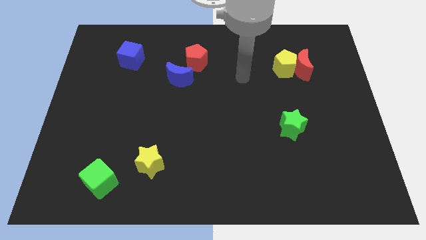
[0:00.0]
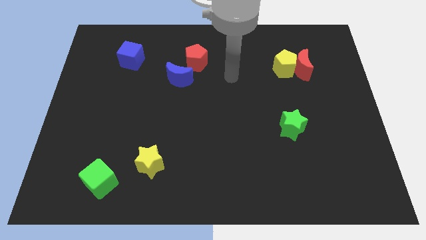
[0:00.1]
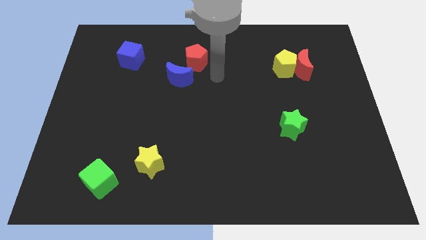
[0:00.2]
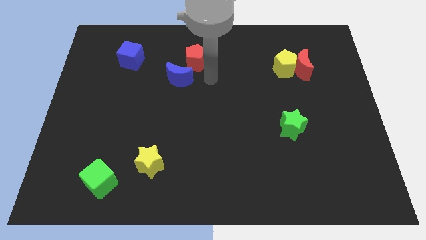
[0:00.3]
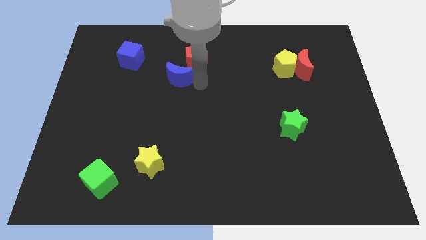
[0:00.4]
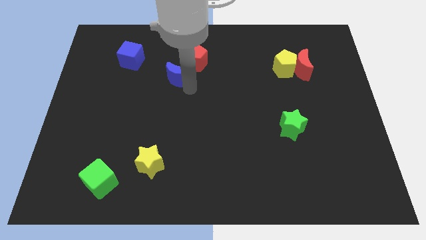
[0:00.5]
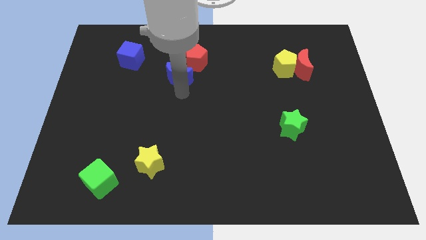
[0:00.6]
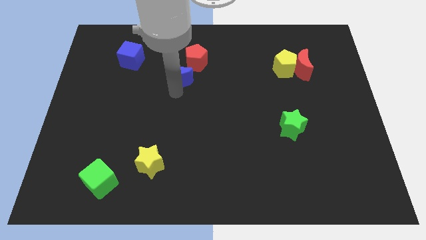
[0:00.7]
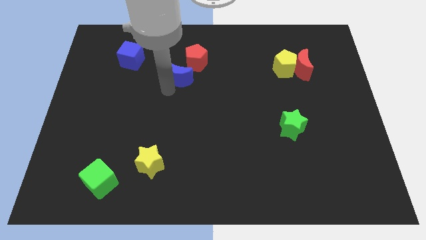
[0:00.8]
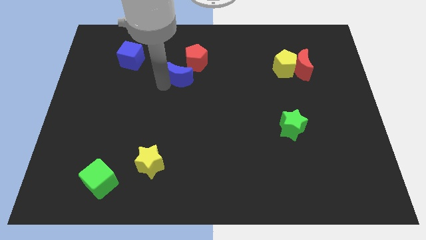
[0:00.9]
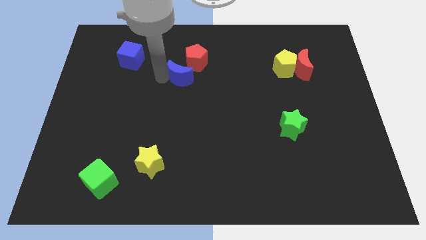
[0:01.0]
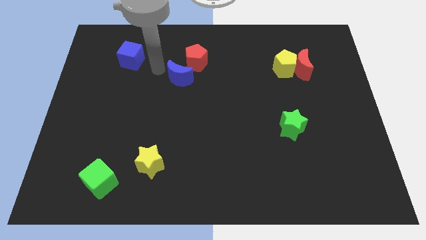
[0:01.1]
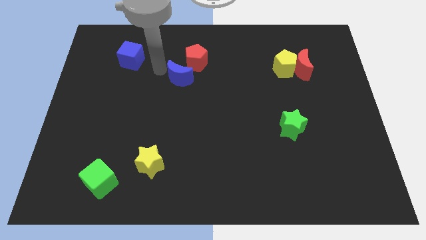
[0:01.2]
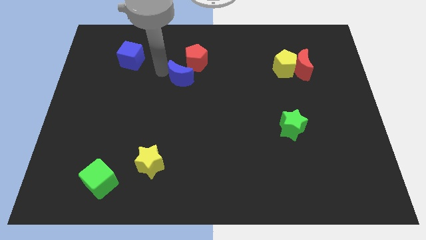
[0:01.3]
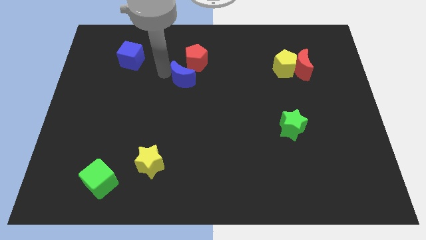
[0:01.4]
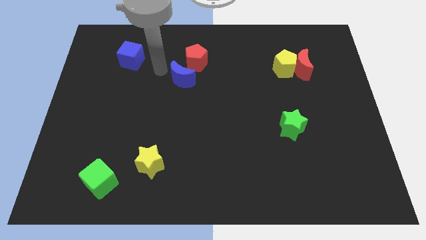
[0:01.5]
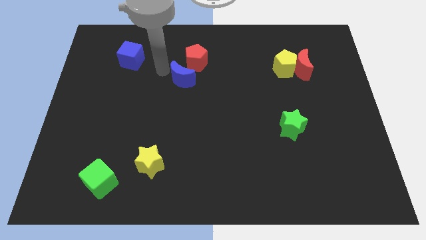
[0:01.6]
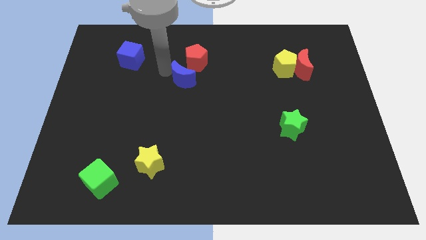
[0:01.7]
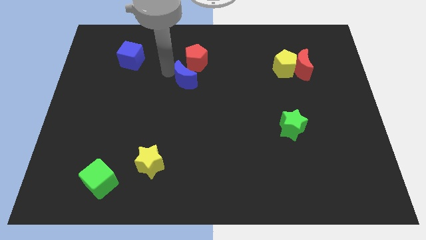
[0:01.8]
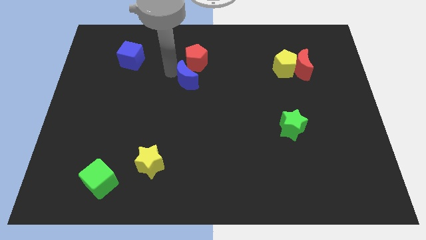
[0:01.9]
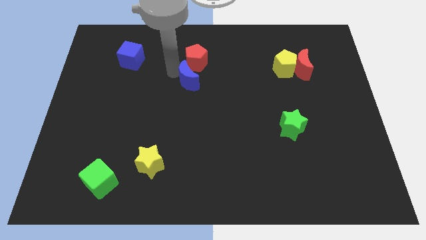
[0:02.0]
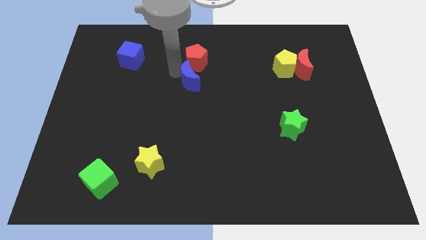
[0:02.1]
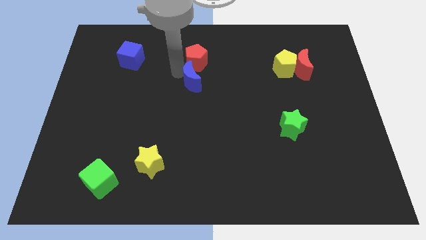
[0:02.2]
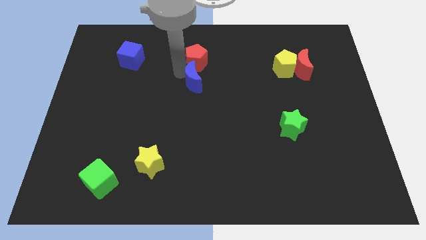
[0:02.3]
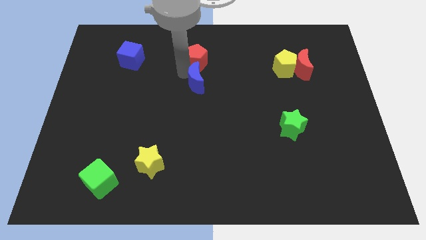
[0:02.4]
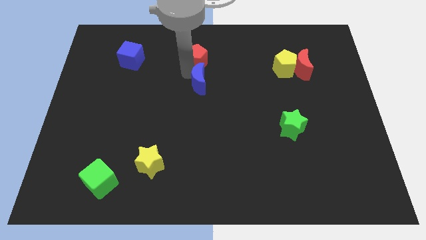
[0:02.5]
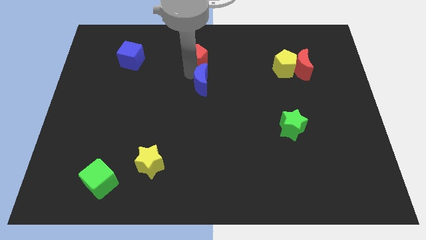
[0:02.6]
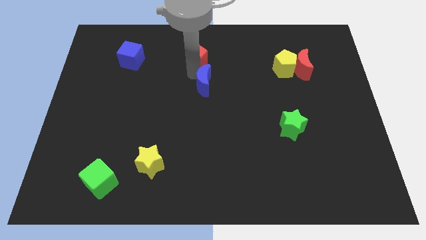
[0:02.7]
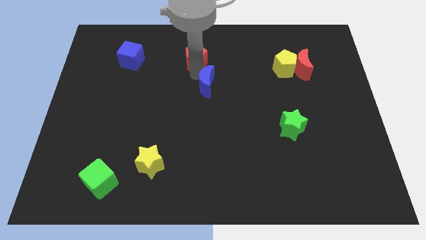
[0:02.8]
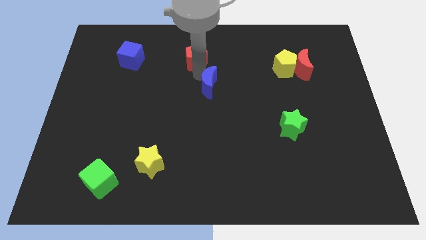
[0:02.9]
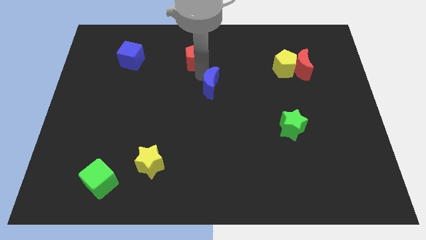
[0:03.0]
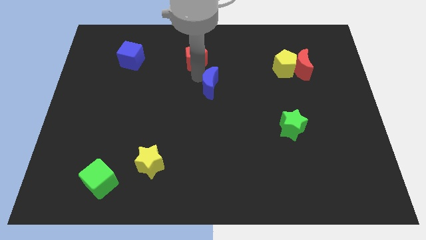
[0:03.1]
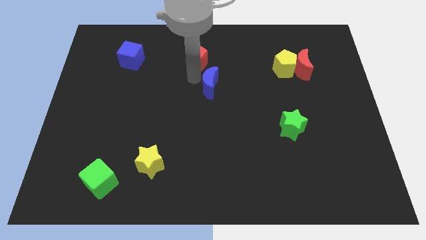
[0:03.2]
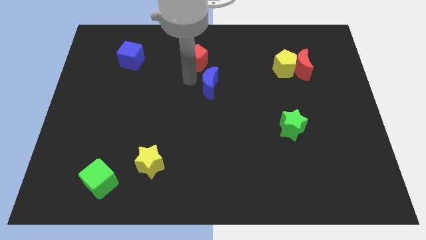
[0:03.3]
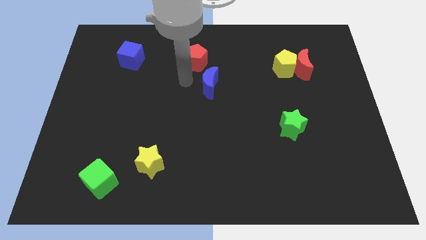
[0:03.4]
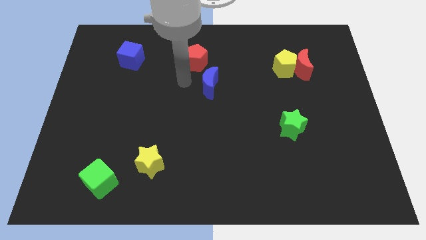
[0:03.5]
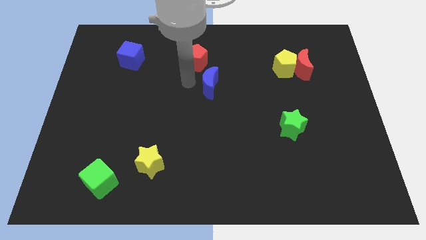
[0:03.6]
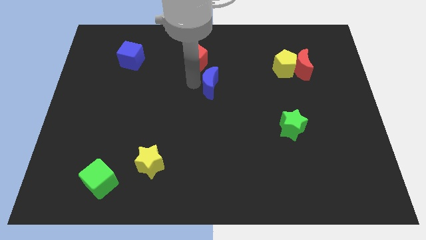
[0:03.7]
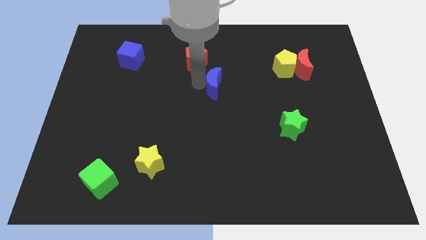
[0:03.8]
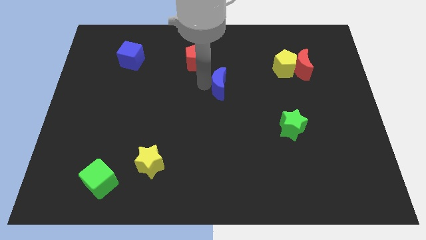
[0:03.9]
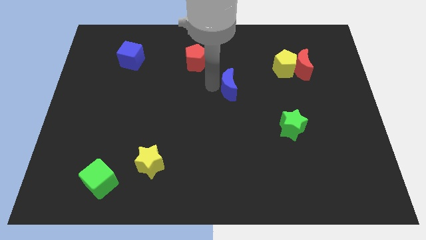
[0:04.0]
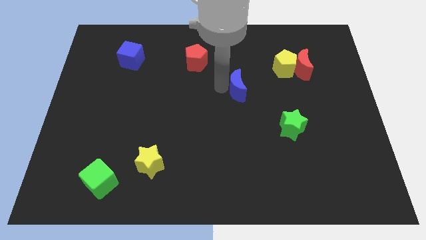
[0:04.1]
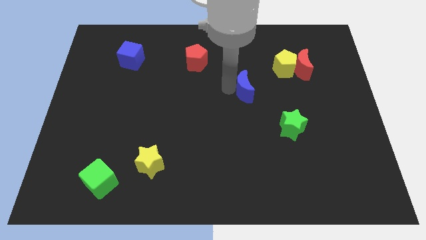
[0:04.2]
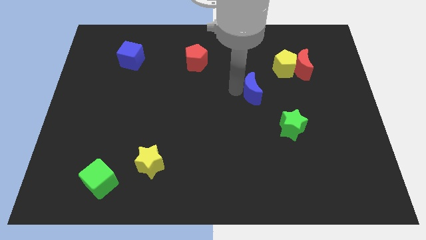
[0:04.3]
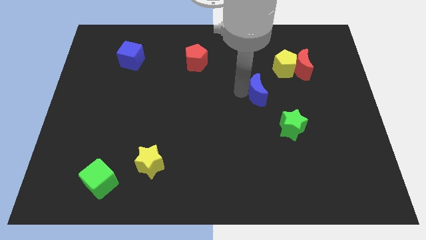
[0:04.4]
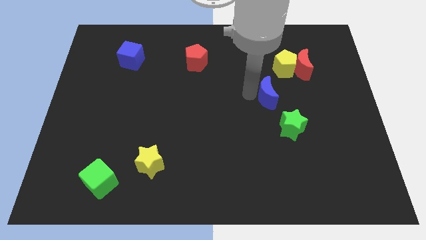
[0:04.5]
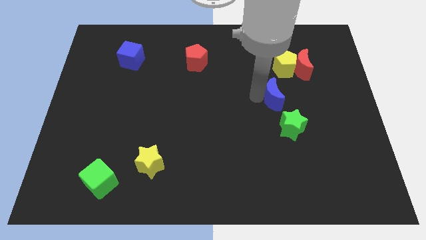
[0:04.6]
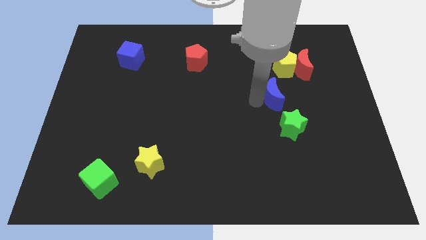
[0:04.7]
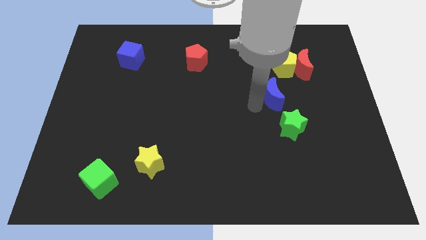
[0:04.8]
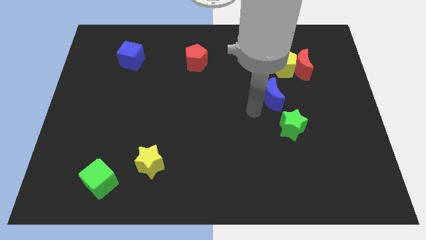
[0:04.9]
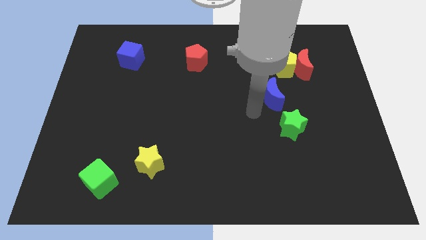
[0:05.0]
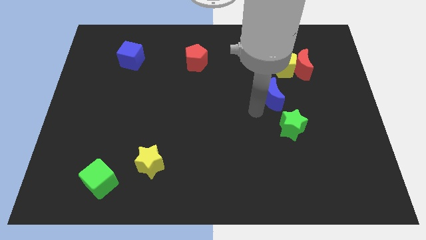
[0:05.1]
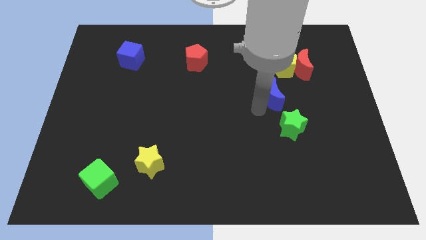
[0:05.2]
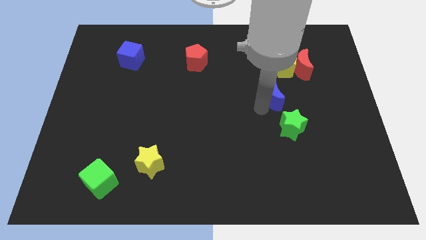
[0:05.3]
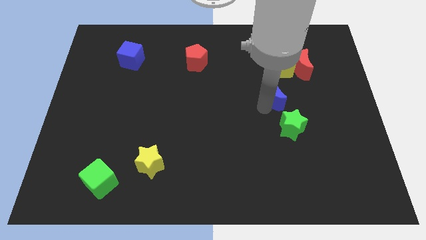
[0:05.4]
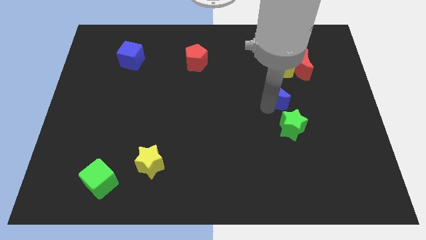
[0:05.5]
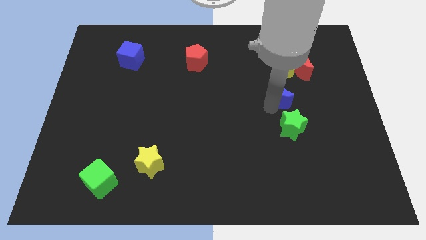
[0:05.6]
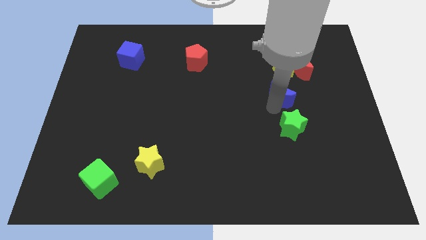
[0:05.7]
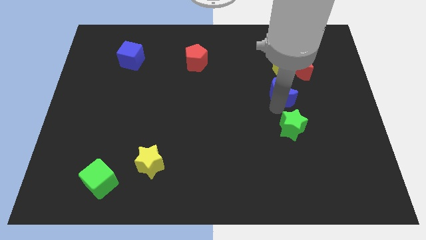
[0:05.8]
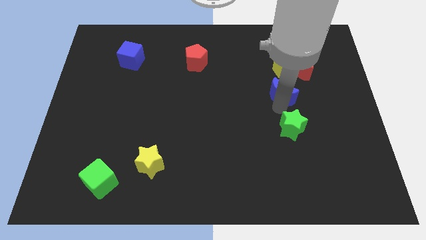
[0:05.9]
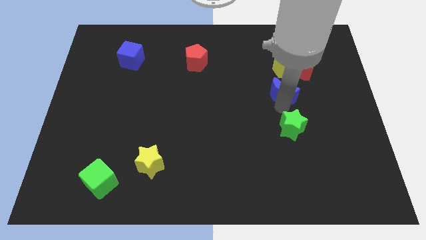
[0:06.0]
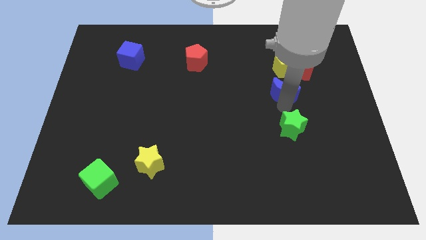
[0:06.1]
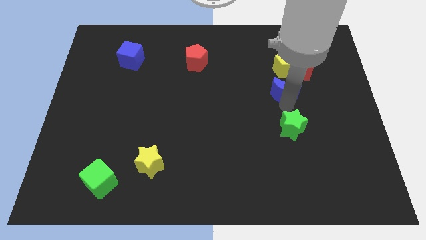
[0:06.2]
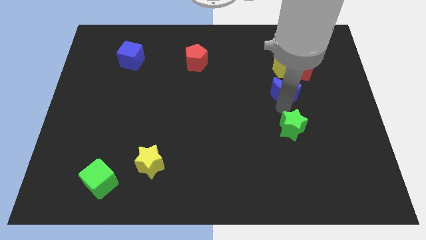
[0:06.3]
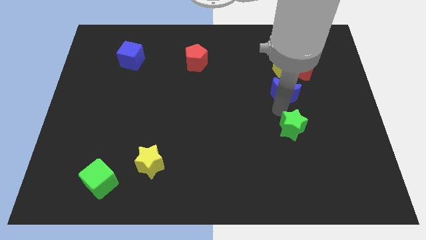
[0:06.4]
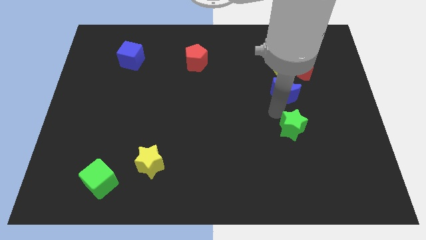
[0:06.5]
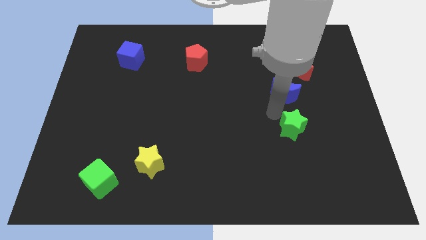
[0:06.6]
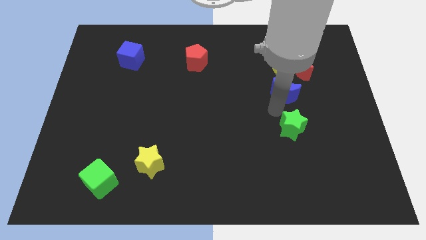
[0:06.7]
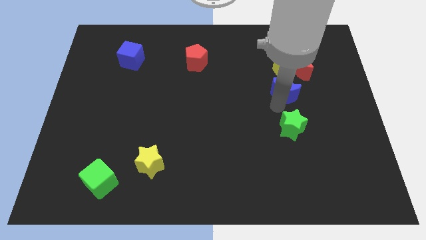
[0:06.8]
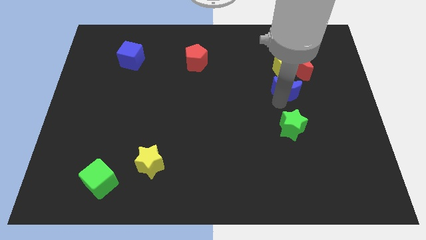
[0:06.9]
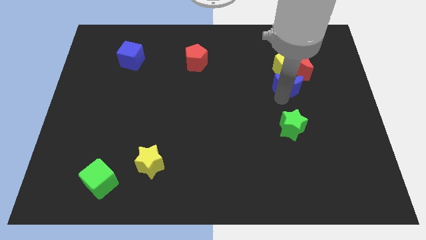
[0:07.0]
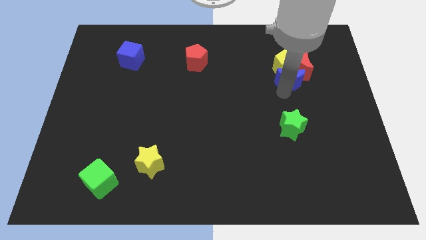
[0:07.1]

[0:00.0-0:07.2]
put the blue moon to the red moon
